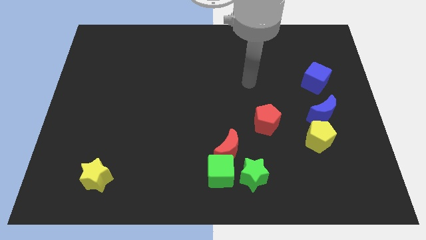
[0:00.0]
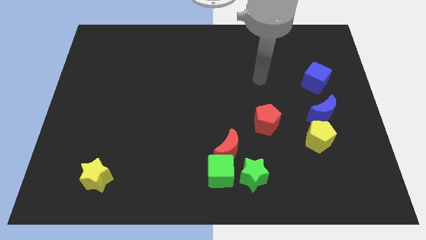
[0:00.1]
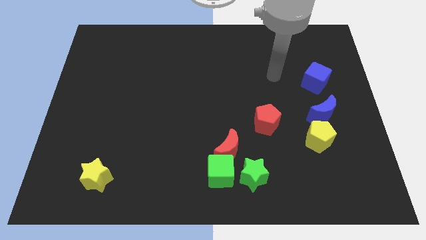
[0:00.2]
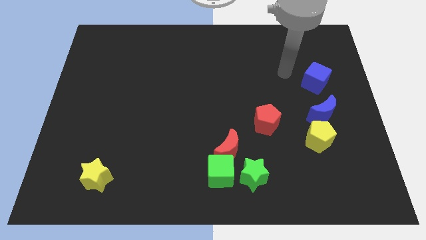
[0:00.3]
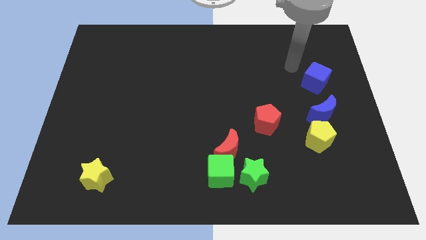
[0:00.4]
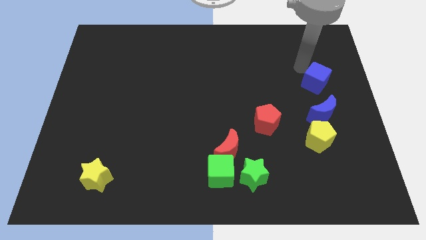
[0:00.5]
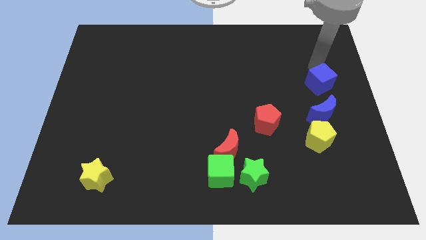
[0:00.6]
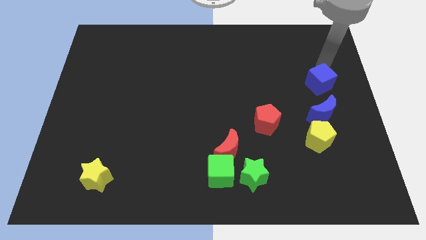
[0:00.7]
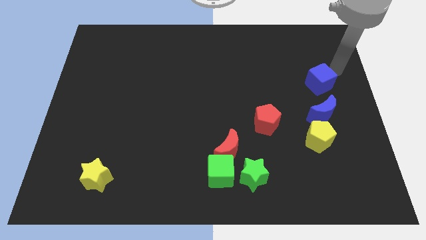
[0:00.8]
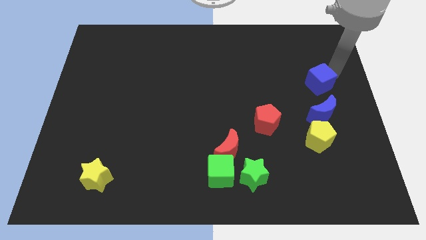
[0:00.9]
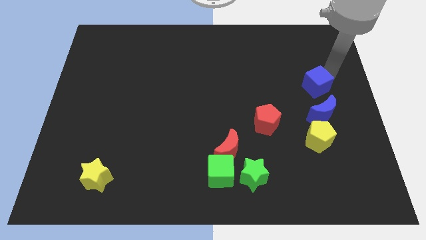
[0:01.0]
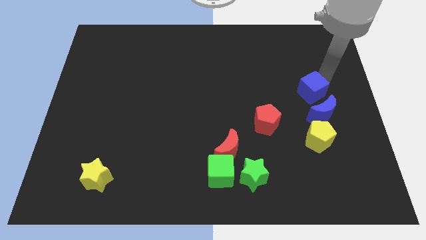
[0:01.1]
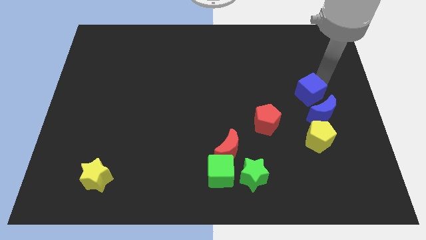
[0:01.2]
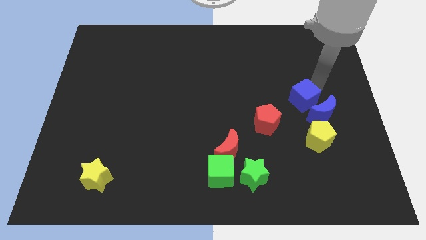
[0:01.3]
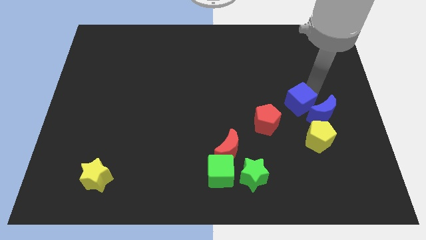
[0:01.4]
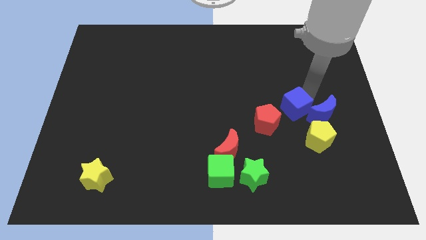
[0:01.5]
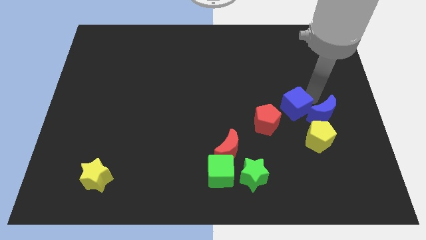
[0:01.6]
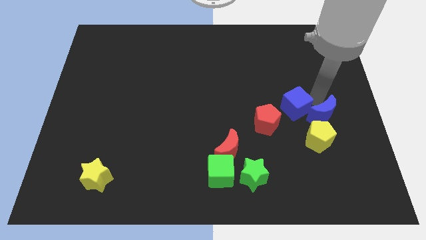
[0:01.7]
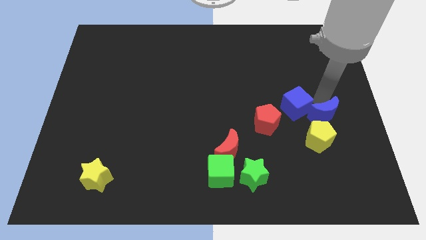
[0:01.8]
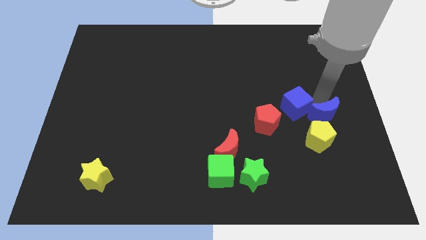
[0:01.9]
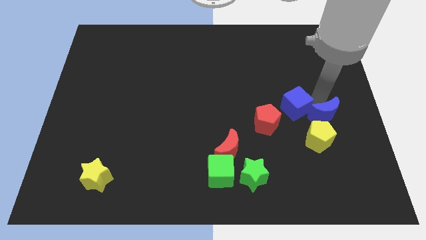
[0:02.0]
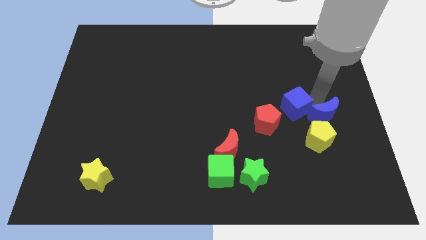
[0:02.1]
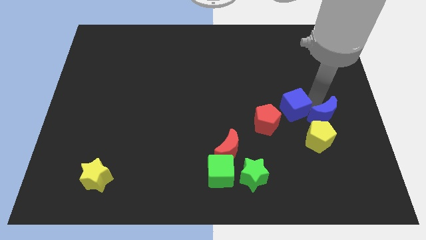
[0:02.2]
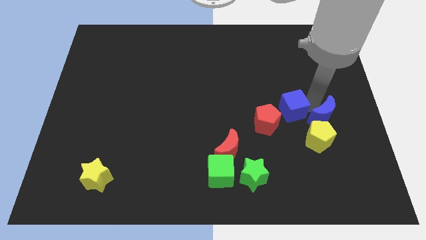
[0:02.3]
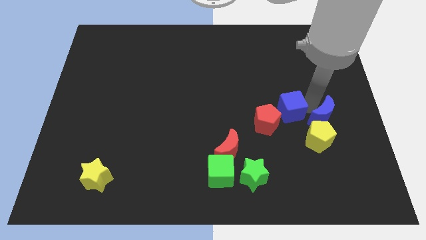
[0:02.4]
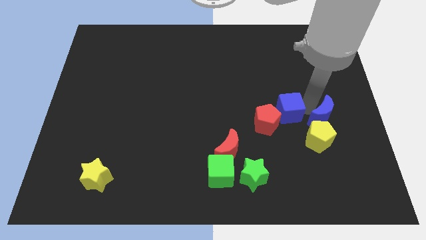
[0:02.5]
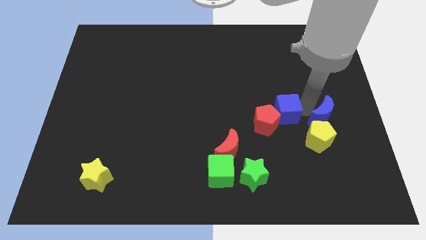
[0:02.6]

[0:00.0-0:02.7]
slide the blue cube next to the red pentagon

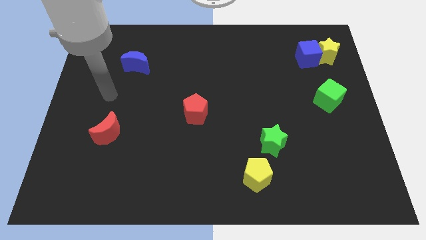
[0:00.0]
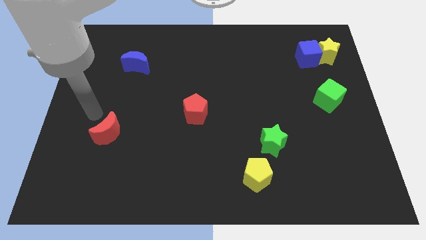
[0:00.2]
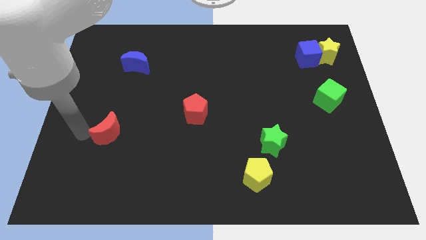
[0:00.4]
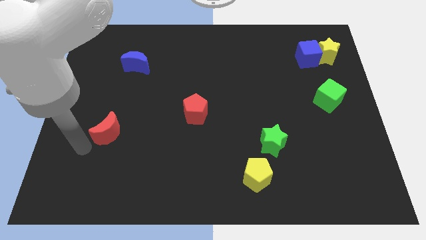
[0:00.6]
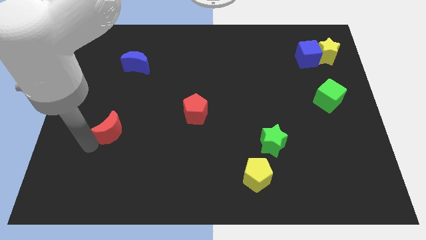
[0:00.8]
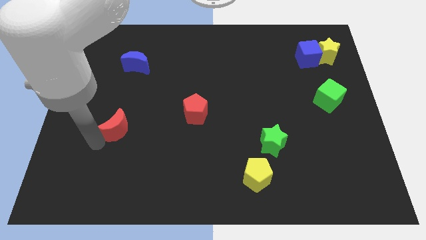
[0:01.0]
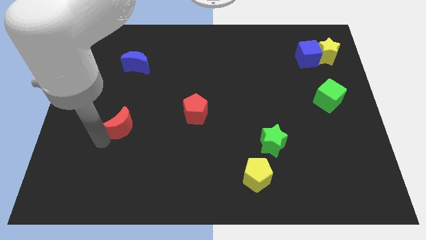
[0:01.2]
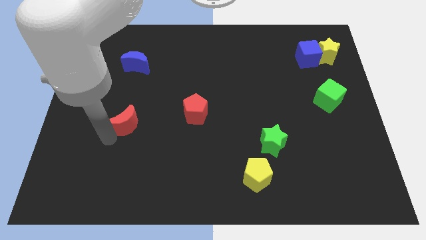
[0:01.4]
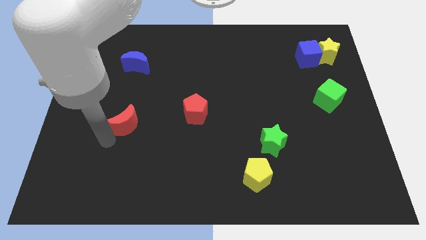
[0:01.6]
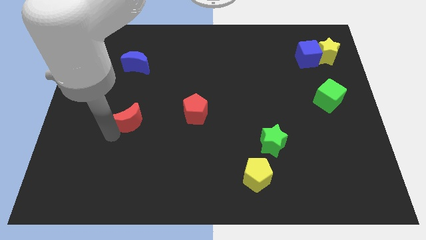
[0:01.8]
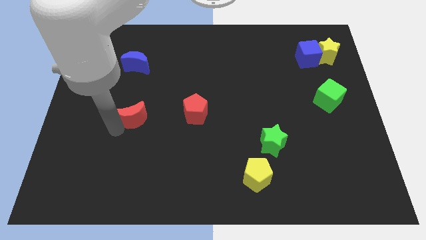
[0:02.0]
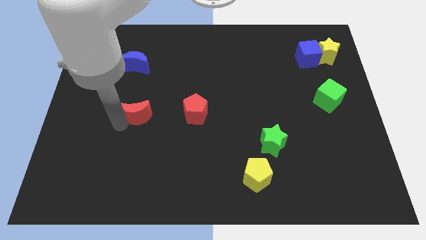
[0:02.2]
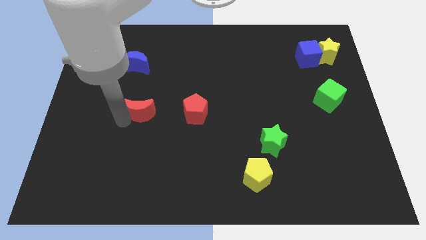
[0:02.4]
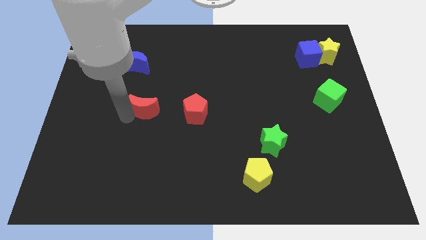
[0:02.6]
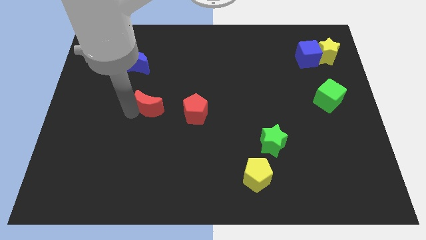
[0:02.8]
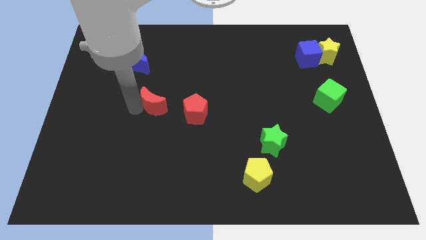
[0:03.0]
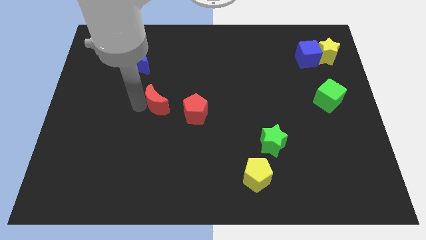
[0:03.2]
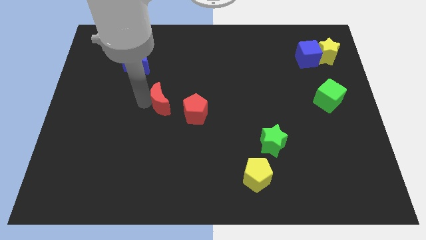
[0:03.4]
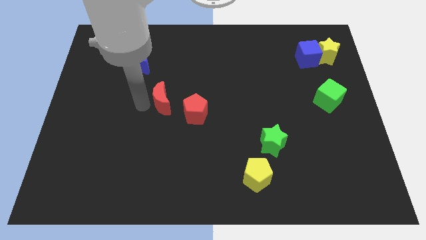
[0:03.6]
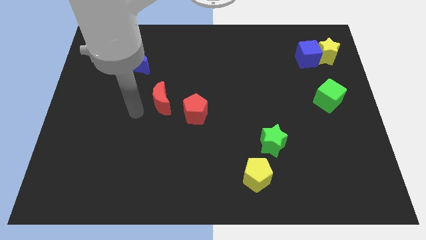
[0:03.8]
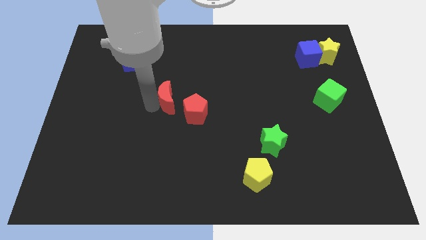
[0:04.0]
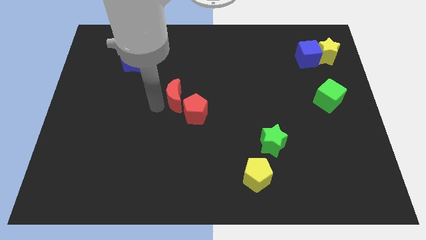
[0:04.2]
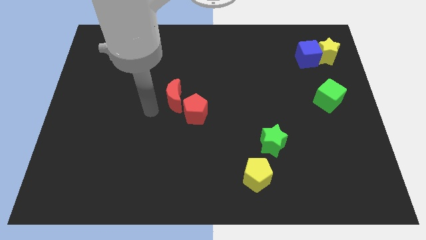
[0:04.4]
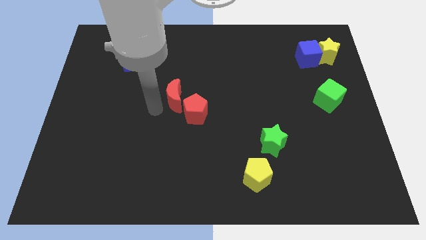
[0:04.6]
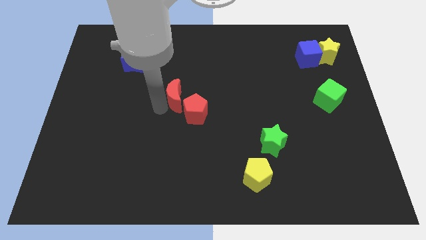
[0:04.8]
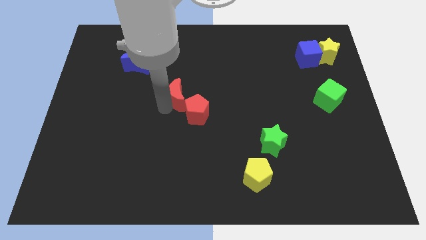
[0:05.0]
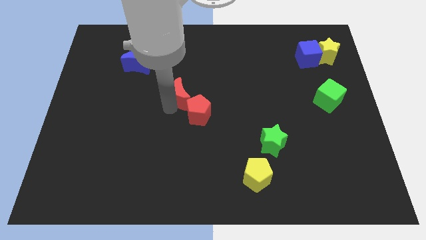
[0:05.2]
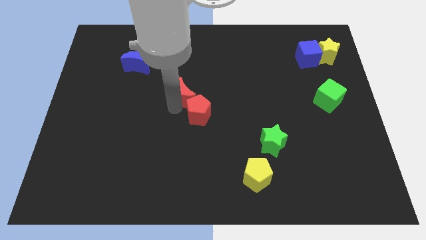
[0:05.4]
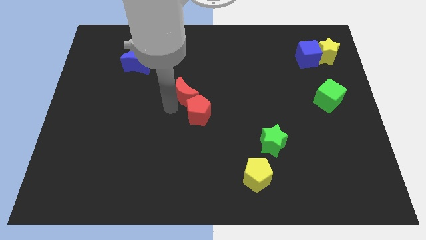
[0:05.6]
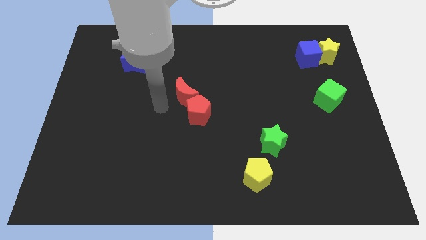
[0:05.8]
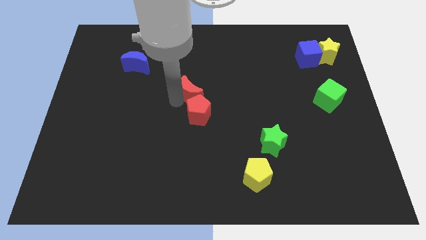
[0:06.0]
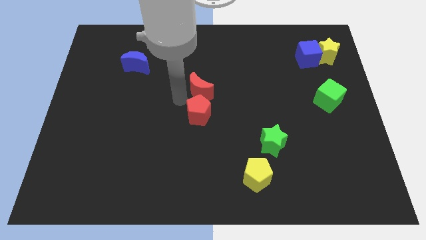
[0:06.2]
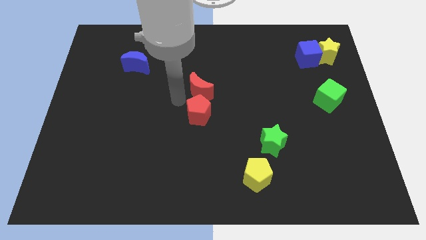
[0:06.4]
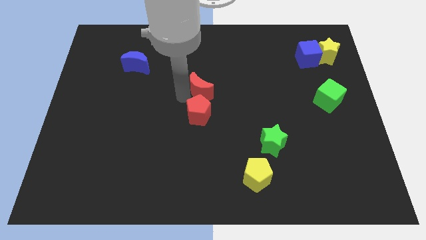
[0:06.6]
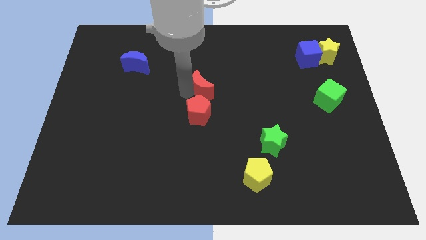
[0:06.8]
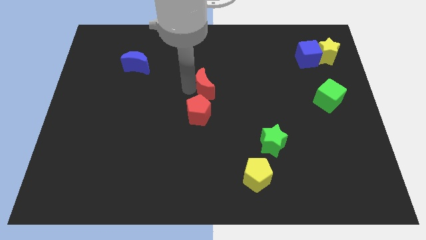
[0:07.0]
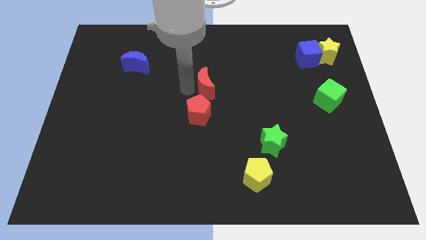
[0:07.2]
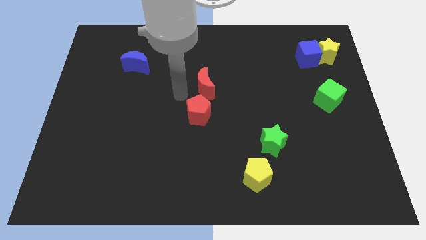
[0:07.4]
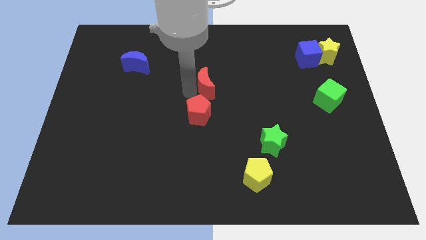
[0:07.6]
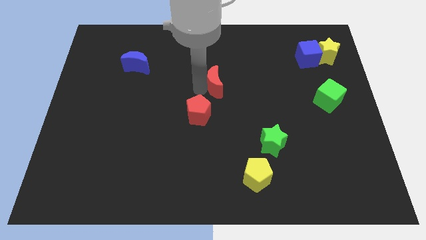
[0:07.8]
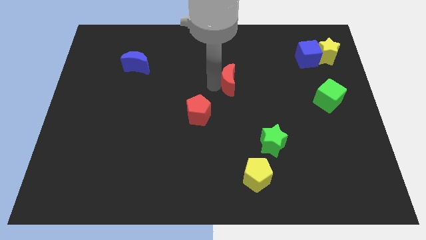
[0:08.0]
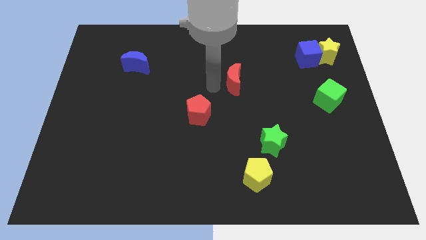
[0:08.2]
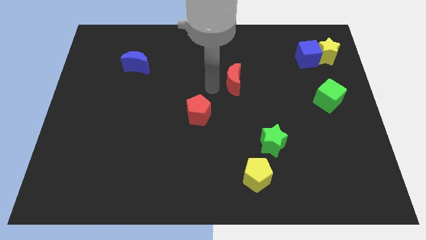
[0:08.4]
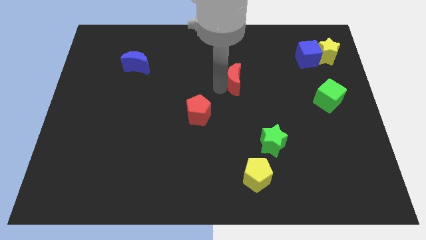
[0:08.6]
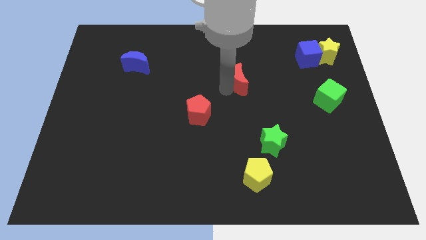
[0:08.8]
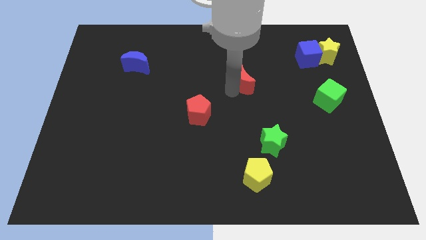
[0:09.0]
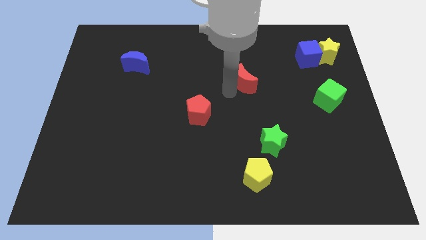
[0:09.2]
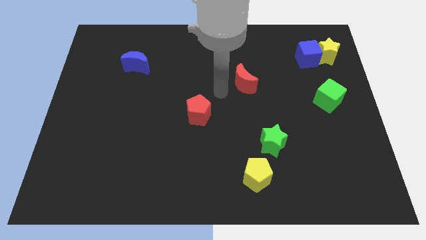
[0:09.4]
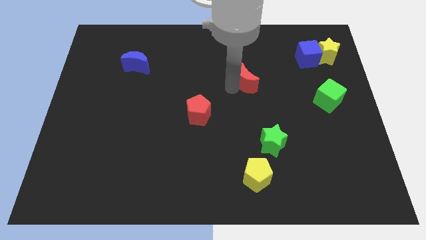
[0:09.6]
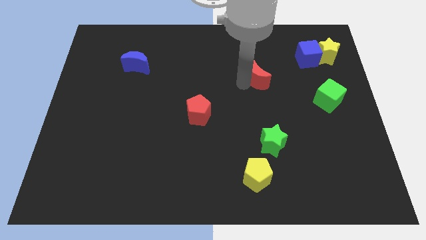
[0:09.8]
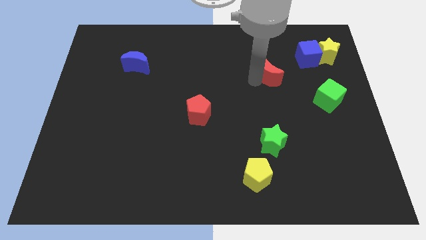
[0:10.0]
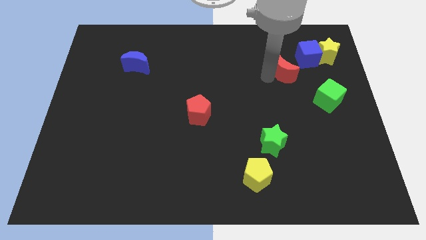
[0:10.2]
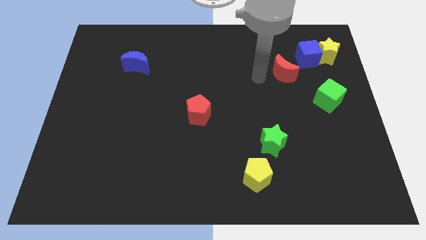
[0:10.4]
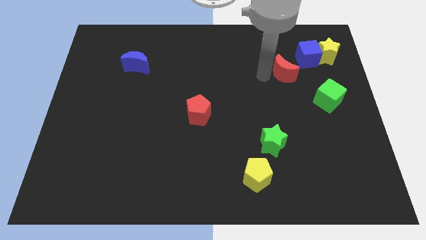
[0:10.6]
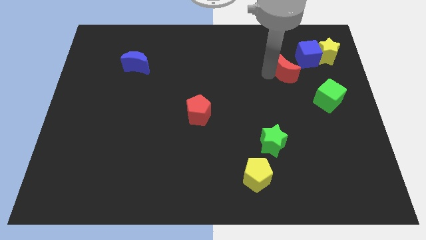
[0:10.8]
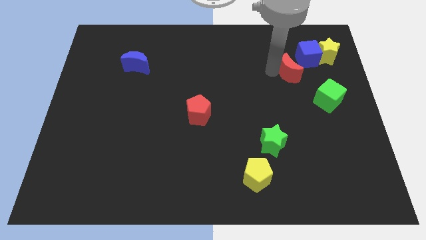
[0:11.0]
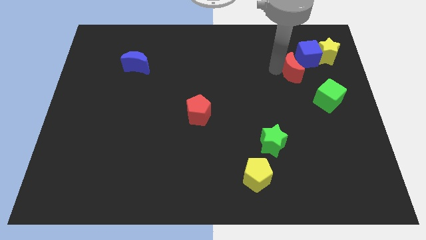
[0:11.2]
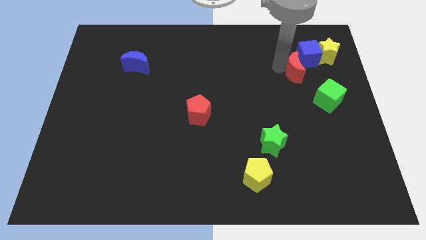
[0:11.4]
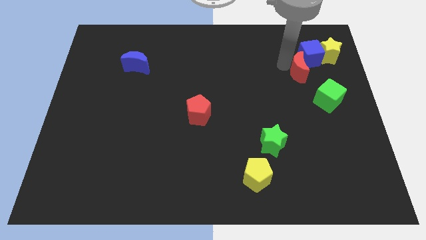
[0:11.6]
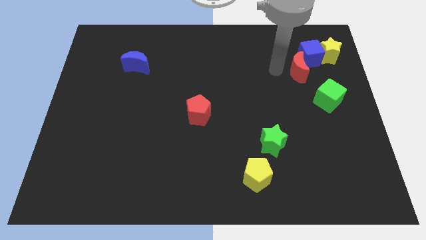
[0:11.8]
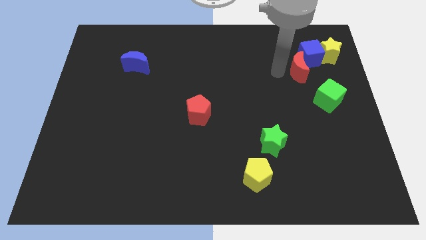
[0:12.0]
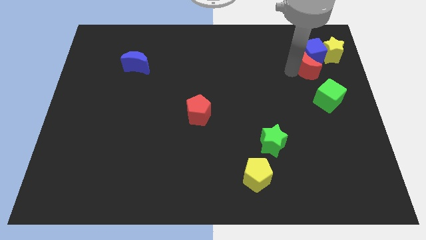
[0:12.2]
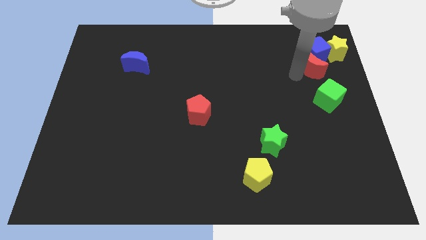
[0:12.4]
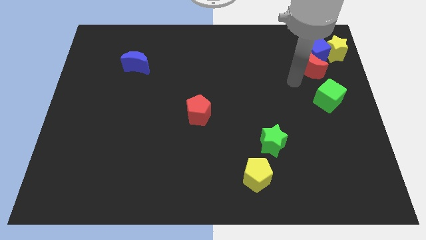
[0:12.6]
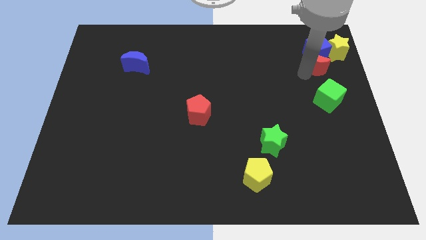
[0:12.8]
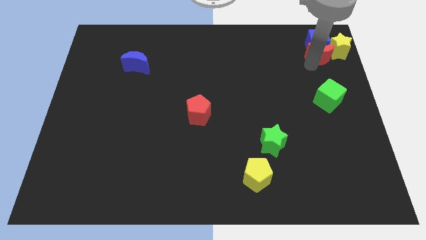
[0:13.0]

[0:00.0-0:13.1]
move the red moon close to the yellow star
